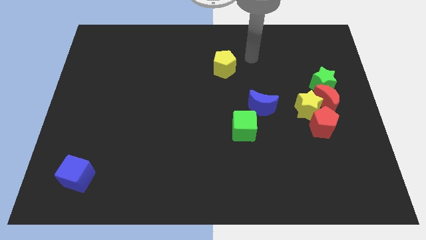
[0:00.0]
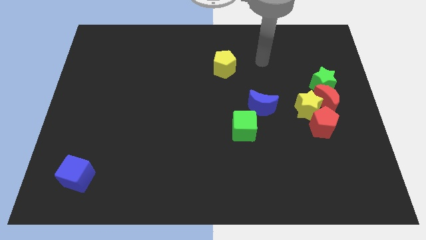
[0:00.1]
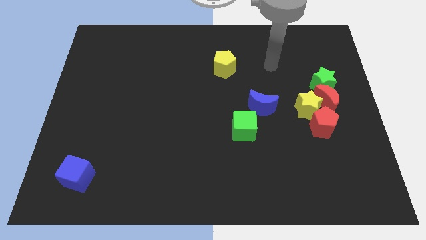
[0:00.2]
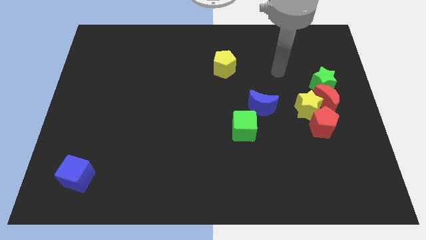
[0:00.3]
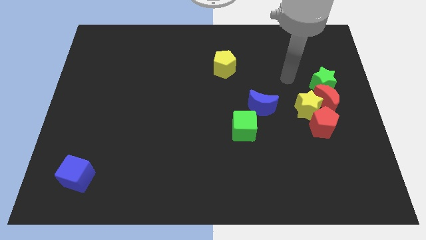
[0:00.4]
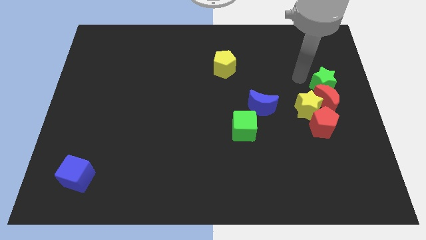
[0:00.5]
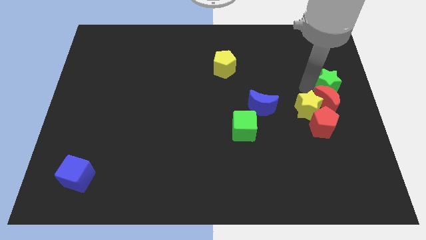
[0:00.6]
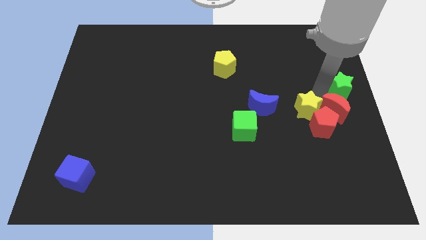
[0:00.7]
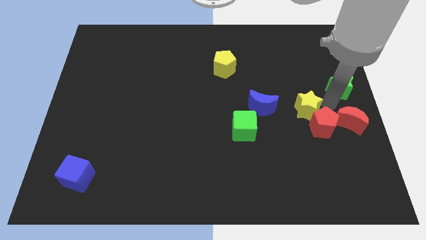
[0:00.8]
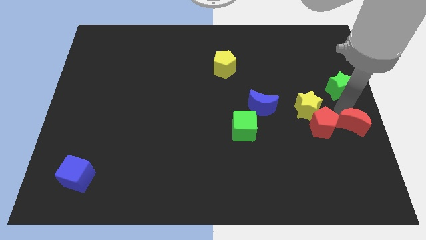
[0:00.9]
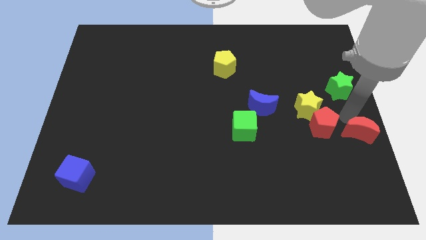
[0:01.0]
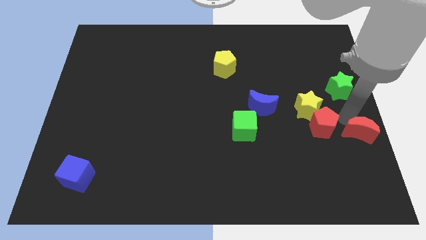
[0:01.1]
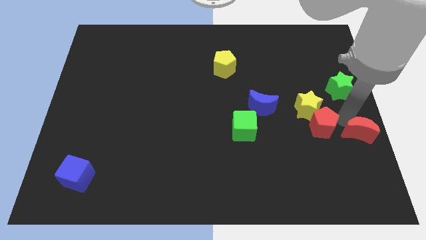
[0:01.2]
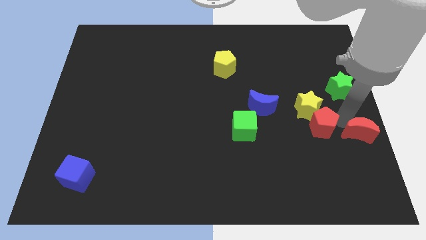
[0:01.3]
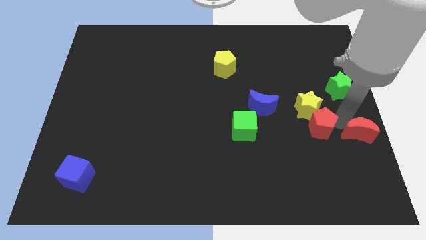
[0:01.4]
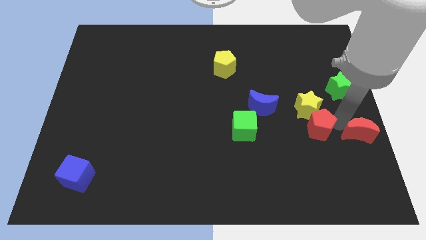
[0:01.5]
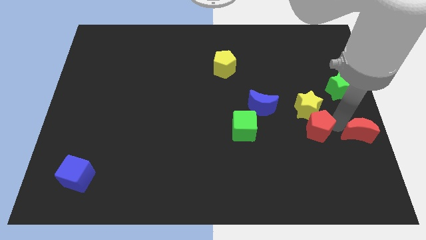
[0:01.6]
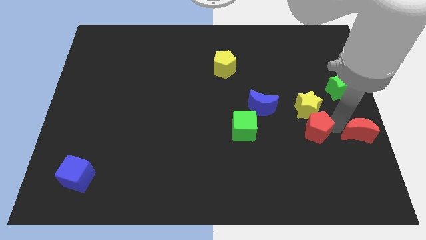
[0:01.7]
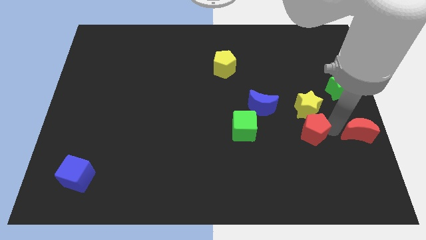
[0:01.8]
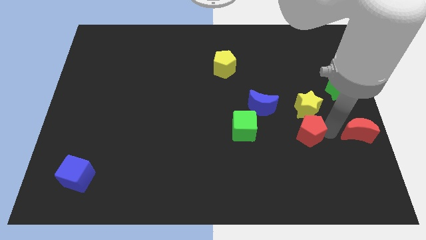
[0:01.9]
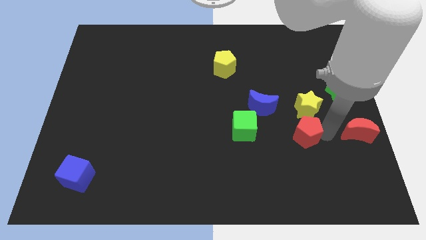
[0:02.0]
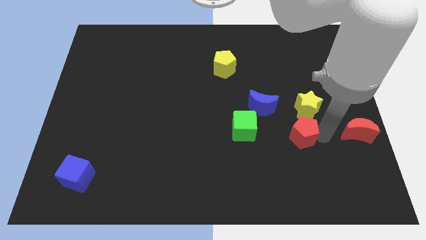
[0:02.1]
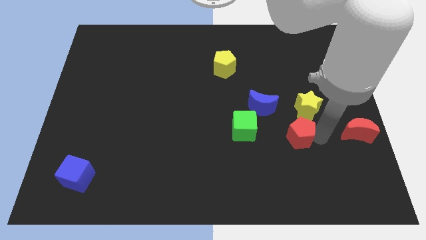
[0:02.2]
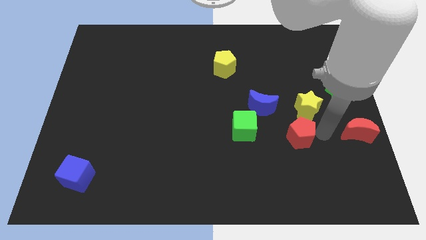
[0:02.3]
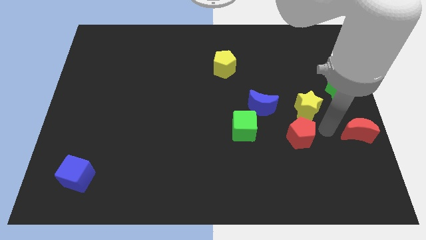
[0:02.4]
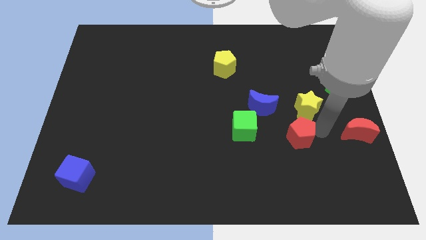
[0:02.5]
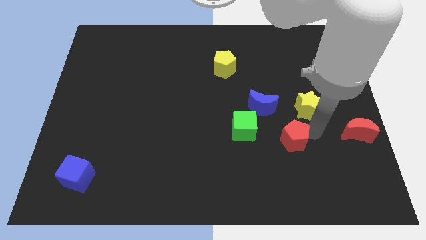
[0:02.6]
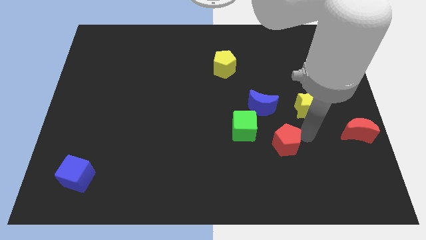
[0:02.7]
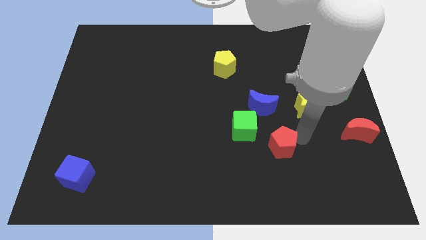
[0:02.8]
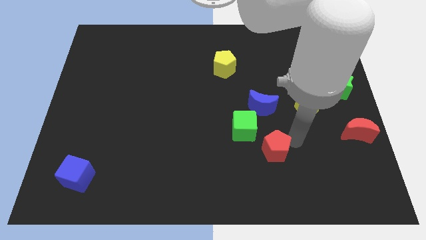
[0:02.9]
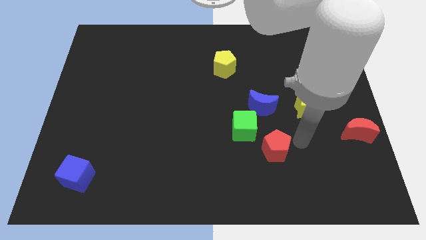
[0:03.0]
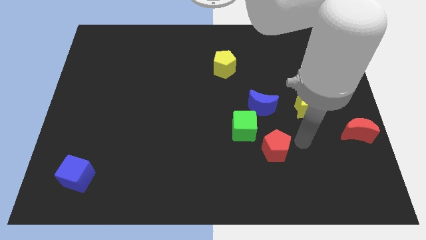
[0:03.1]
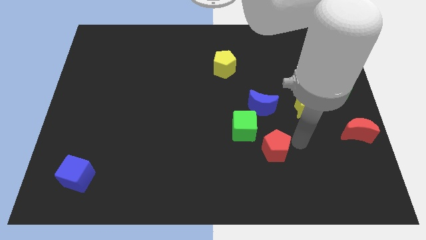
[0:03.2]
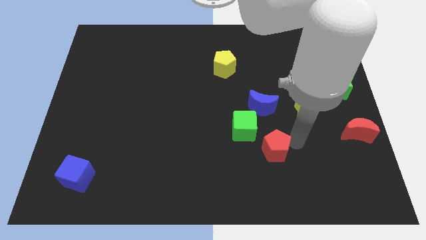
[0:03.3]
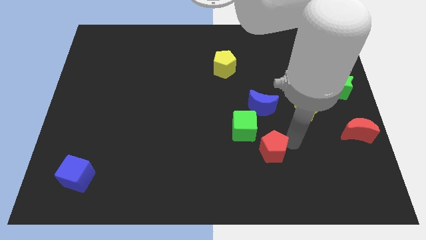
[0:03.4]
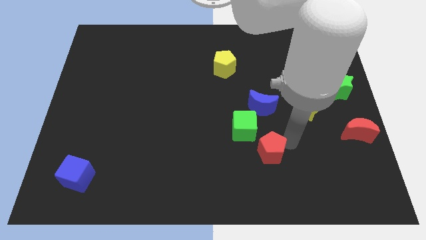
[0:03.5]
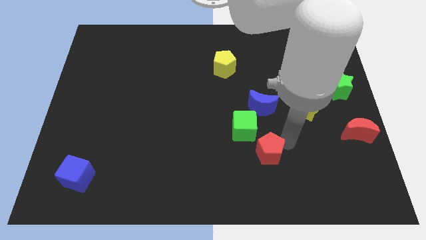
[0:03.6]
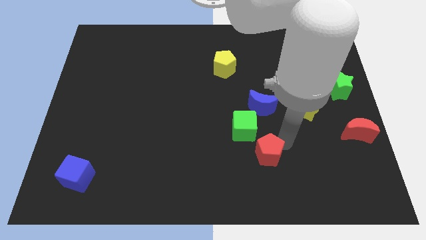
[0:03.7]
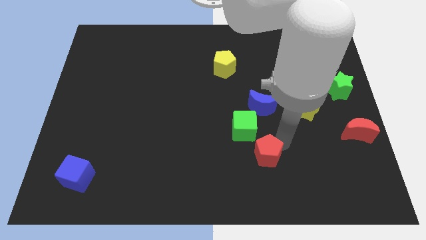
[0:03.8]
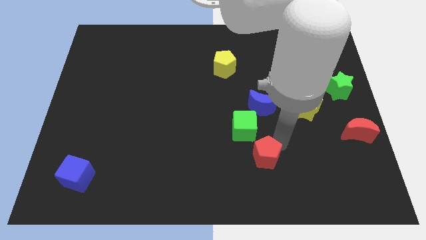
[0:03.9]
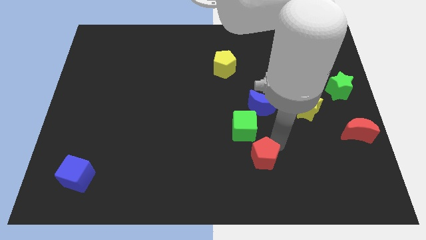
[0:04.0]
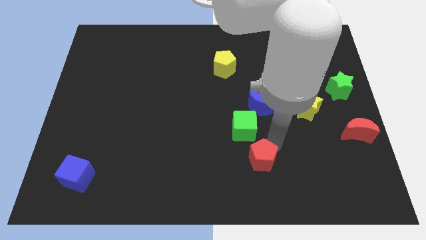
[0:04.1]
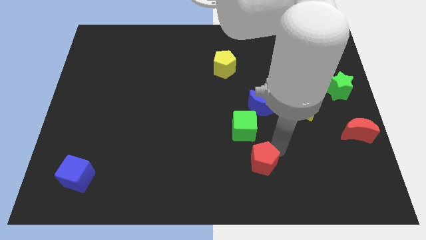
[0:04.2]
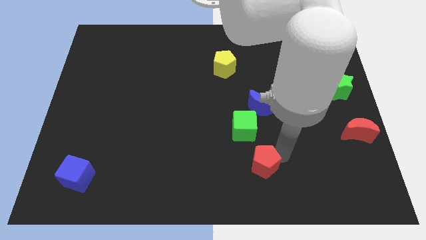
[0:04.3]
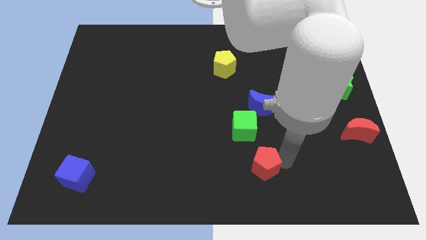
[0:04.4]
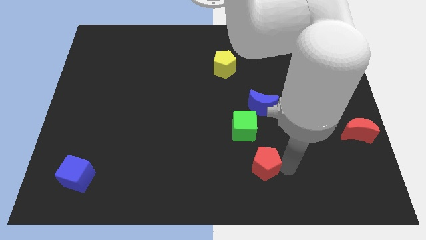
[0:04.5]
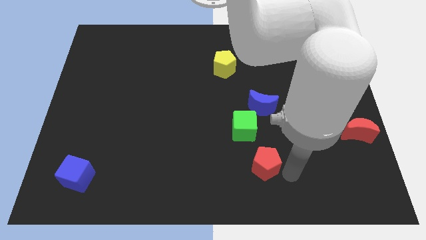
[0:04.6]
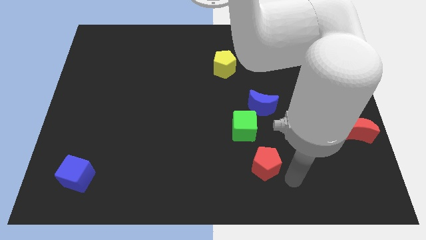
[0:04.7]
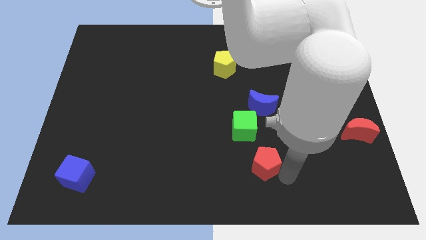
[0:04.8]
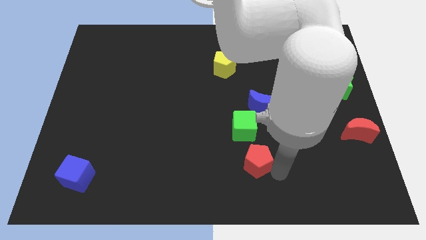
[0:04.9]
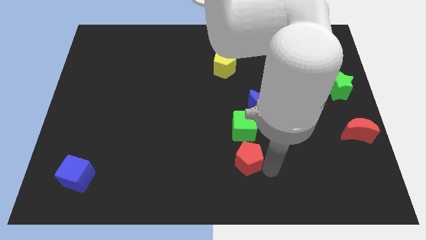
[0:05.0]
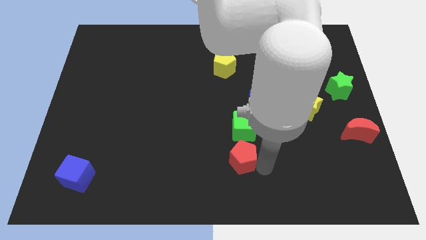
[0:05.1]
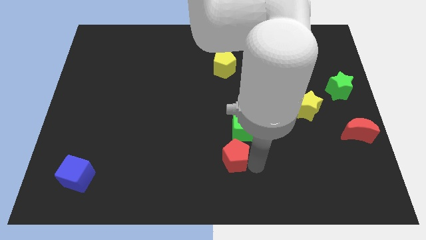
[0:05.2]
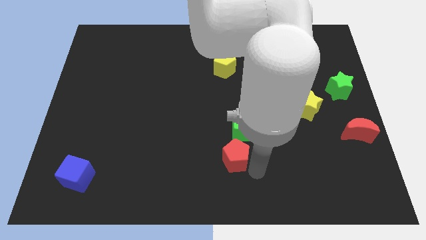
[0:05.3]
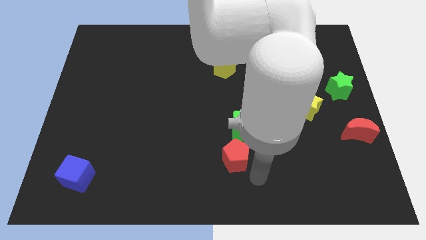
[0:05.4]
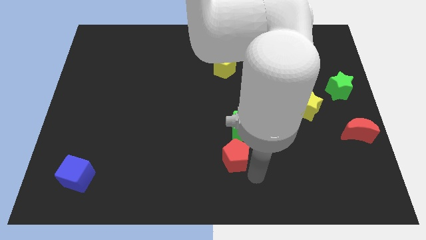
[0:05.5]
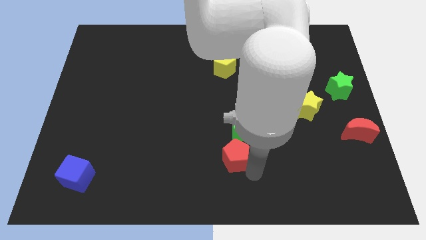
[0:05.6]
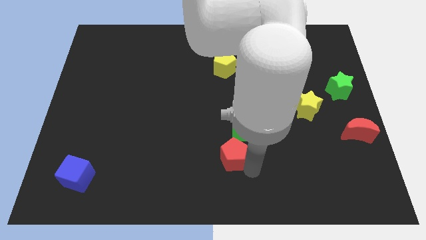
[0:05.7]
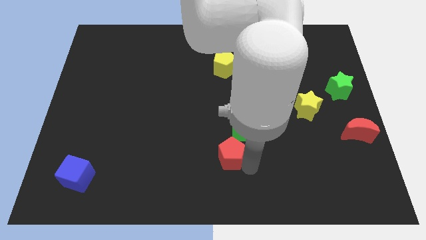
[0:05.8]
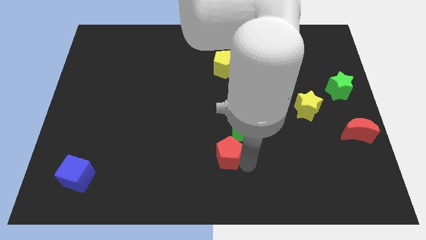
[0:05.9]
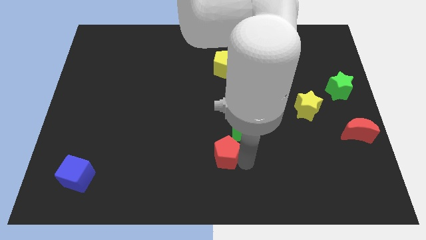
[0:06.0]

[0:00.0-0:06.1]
push the red pentagon to the left

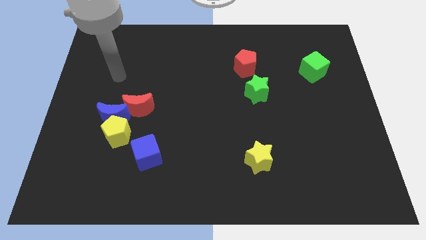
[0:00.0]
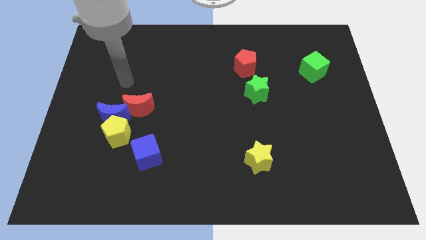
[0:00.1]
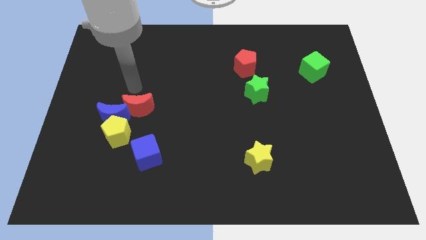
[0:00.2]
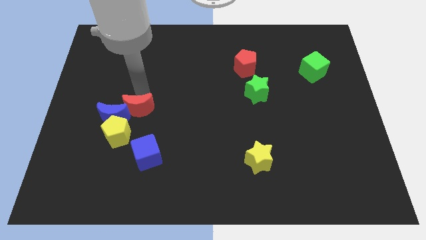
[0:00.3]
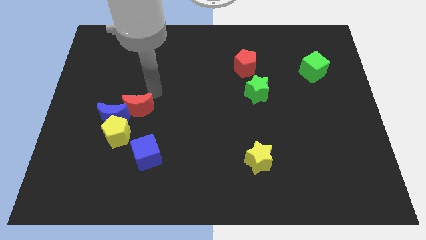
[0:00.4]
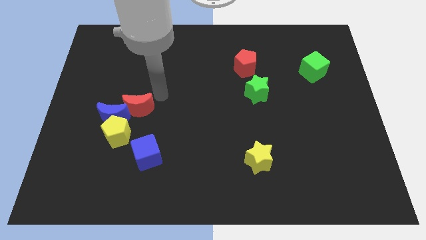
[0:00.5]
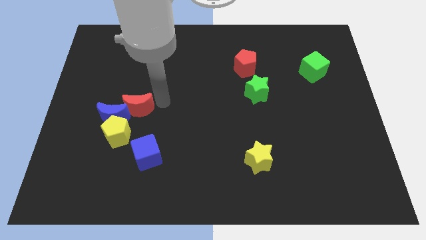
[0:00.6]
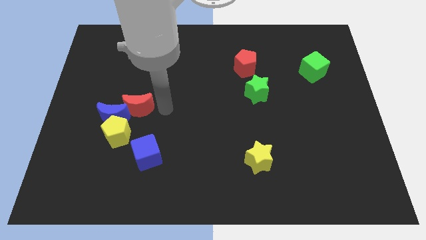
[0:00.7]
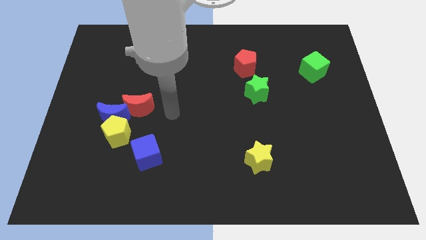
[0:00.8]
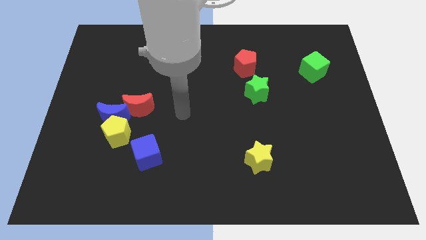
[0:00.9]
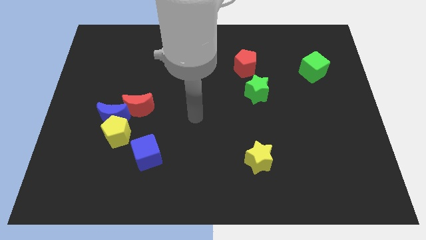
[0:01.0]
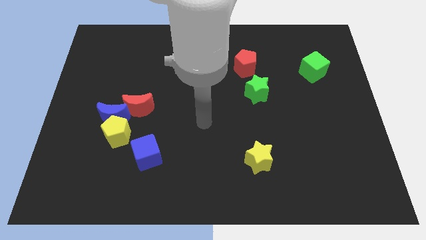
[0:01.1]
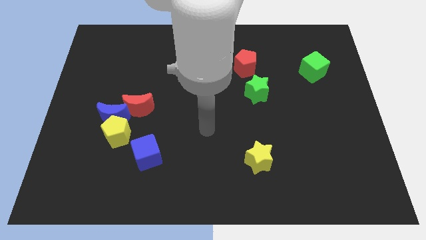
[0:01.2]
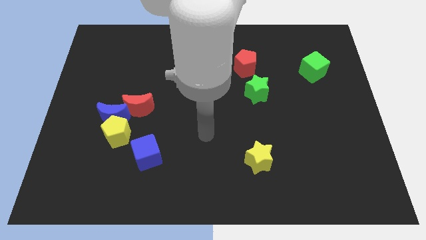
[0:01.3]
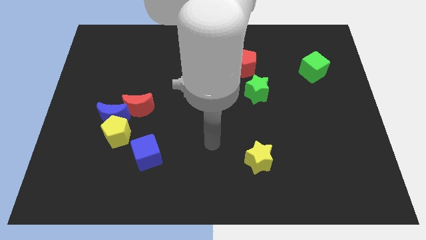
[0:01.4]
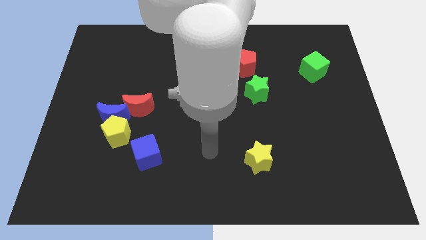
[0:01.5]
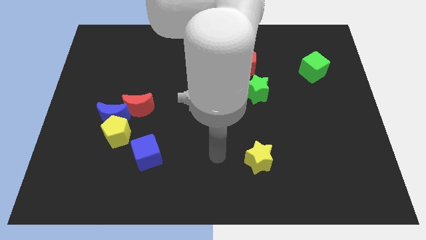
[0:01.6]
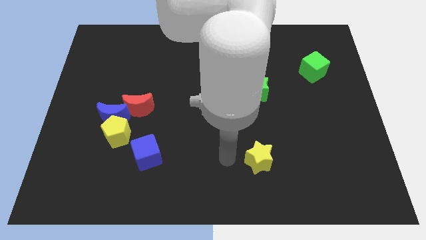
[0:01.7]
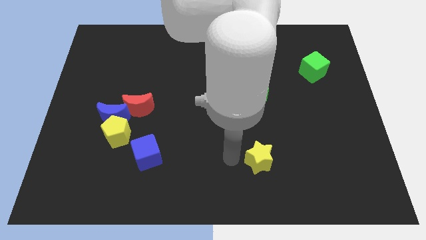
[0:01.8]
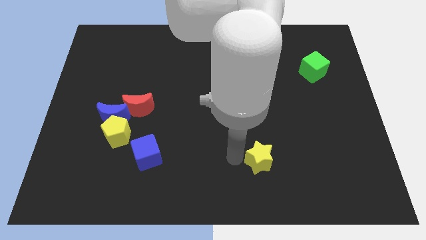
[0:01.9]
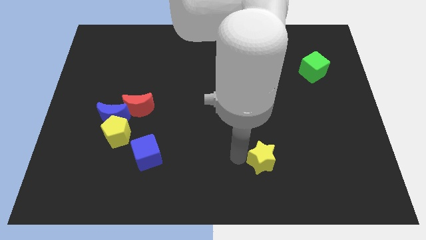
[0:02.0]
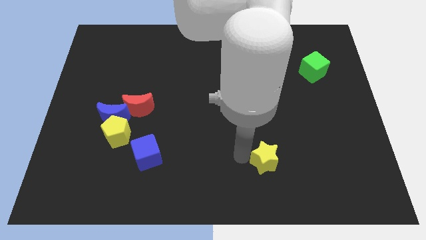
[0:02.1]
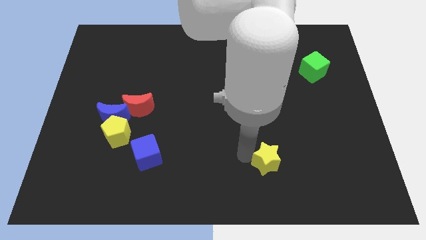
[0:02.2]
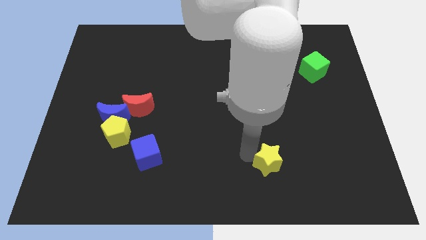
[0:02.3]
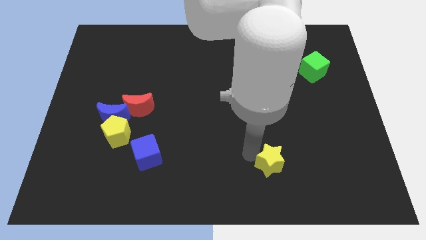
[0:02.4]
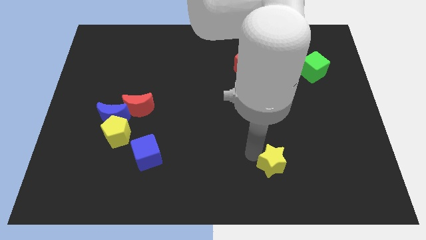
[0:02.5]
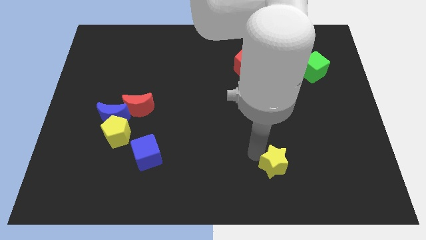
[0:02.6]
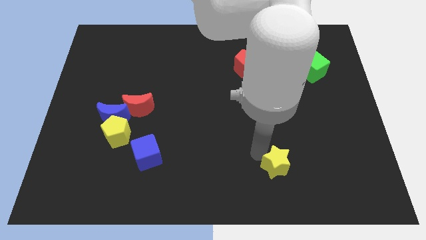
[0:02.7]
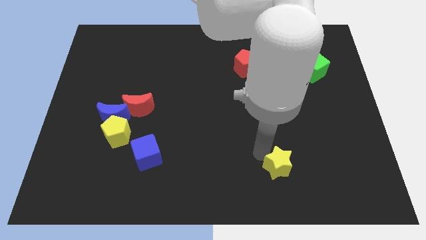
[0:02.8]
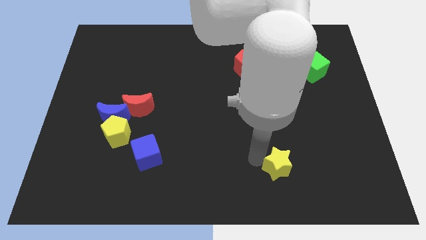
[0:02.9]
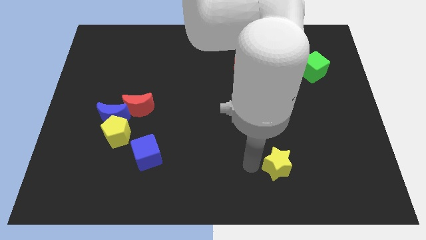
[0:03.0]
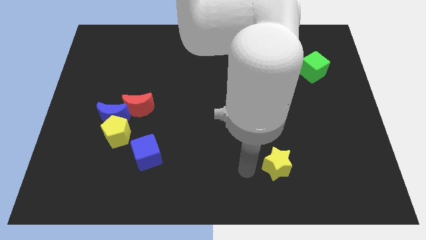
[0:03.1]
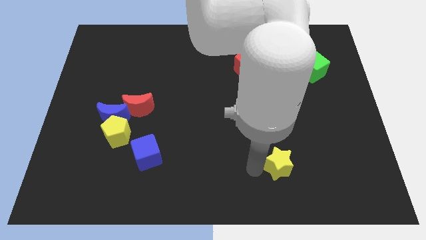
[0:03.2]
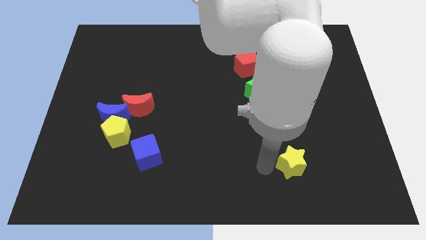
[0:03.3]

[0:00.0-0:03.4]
slightly slide the yellow star right
